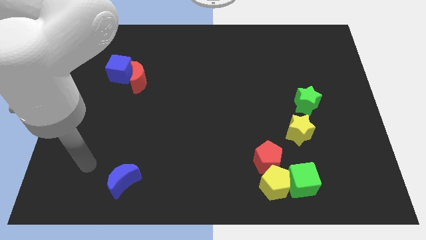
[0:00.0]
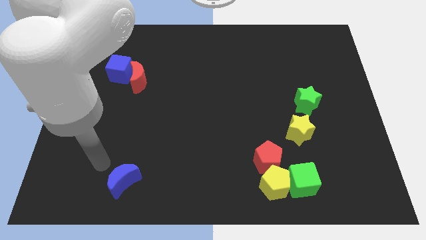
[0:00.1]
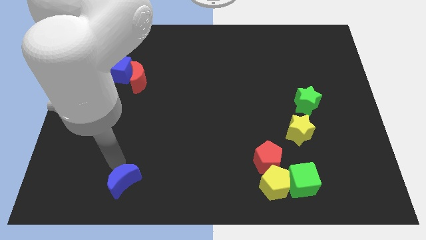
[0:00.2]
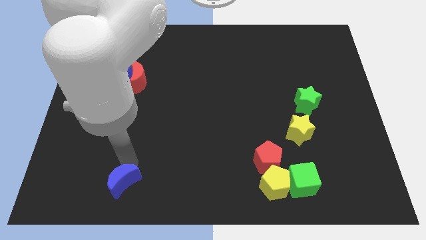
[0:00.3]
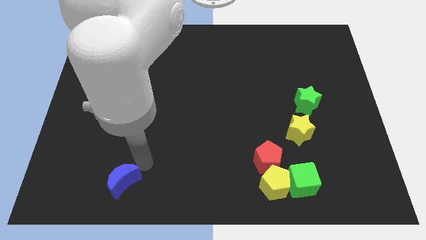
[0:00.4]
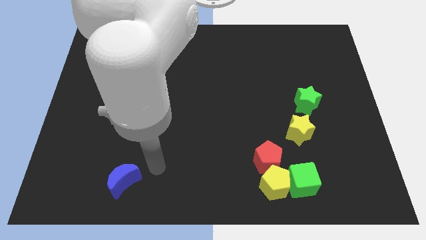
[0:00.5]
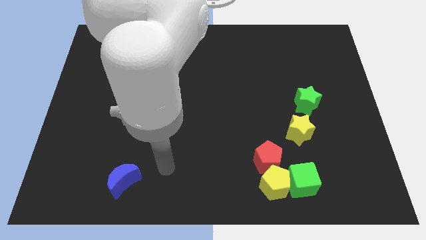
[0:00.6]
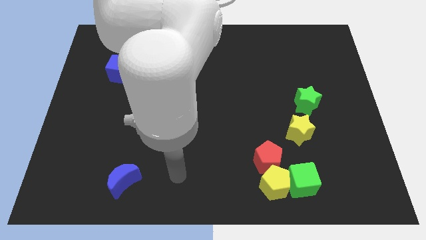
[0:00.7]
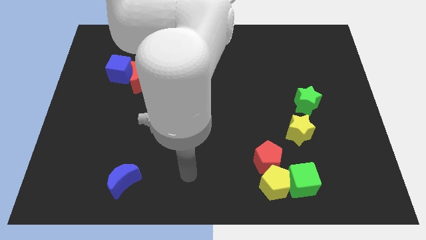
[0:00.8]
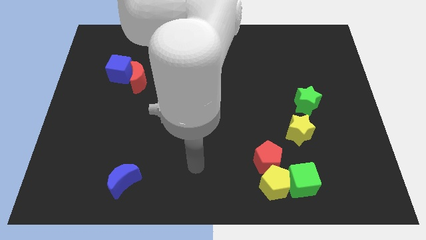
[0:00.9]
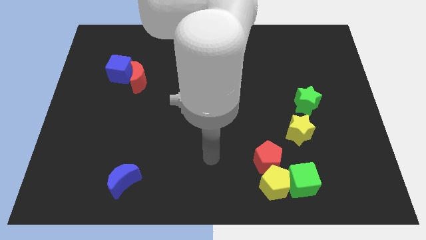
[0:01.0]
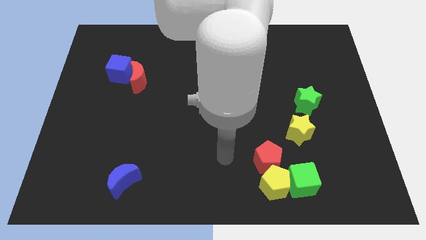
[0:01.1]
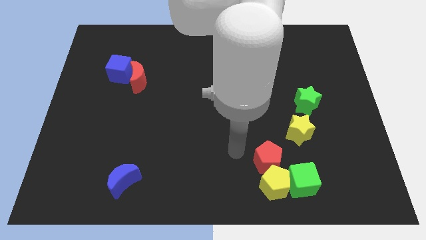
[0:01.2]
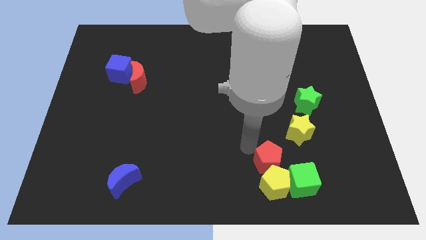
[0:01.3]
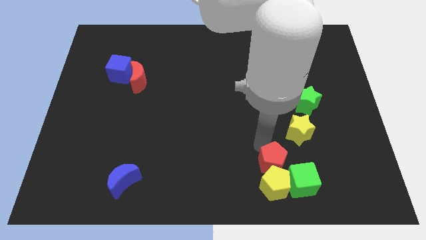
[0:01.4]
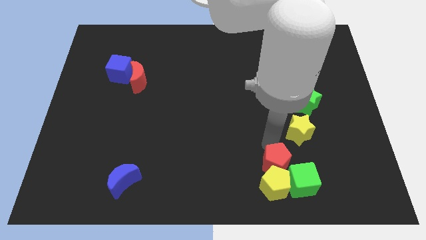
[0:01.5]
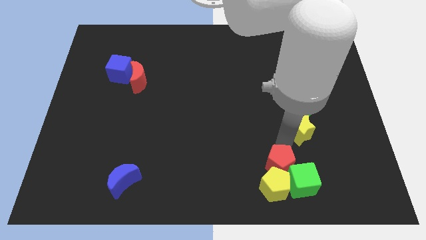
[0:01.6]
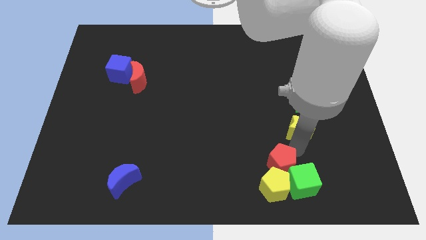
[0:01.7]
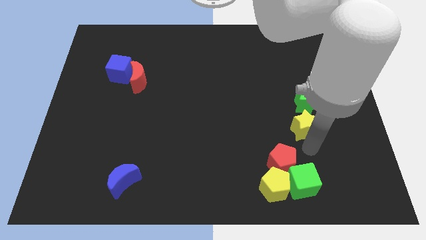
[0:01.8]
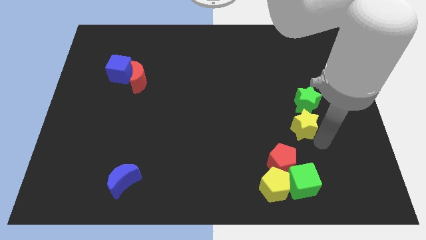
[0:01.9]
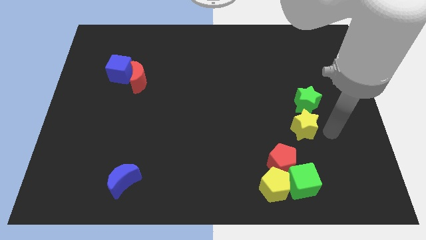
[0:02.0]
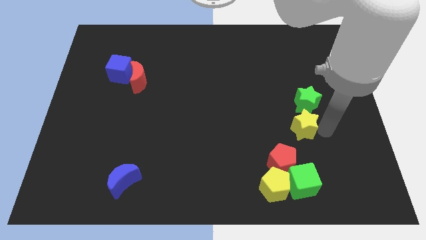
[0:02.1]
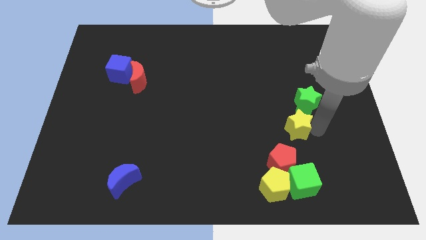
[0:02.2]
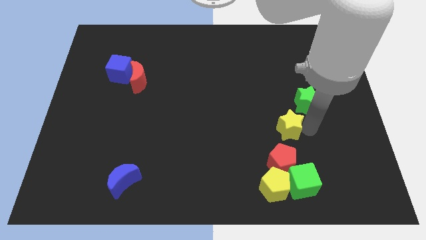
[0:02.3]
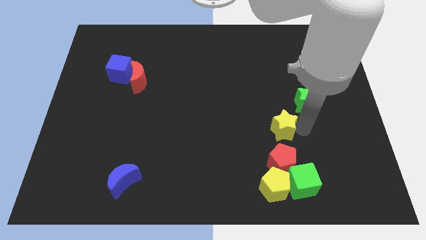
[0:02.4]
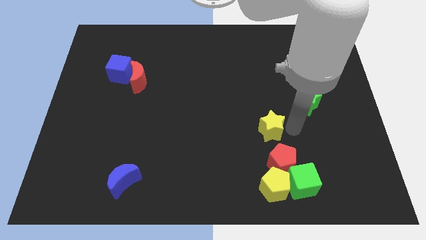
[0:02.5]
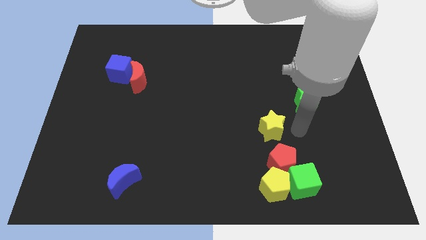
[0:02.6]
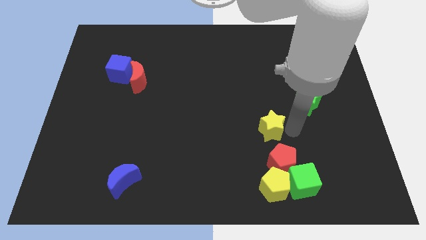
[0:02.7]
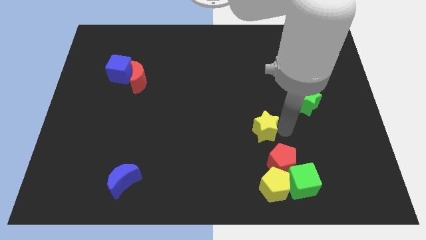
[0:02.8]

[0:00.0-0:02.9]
move the yellow star left a little

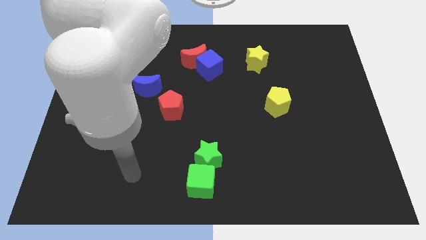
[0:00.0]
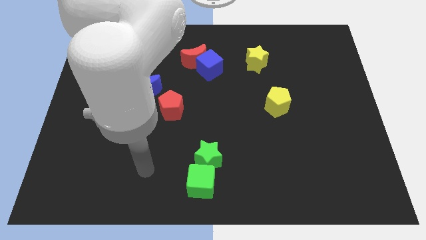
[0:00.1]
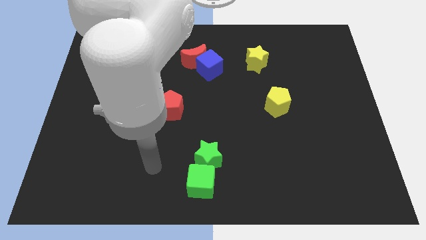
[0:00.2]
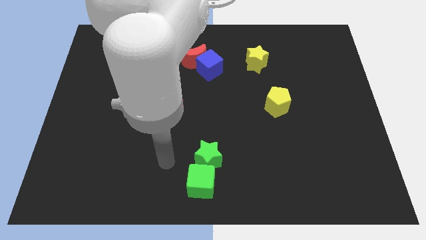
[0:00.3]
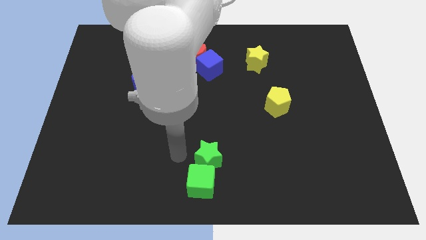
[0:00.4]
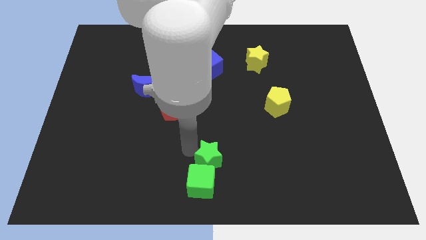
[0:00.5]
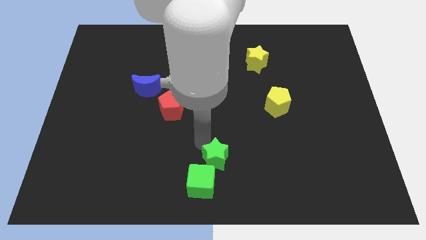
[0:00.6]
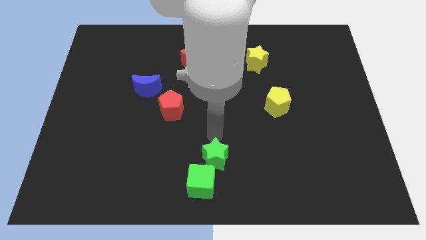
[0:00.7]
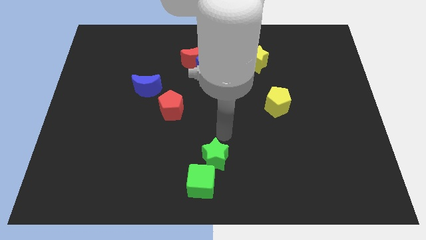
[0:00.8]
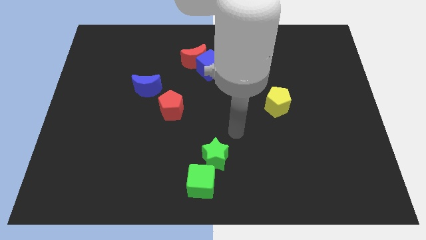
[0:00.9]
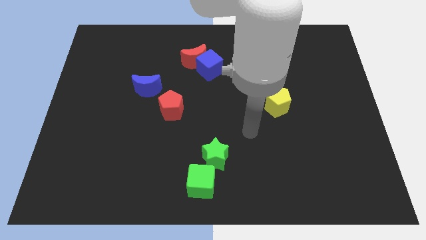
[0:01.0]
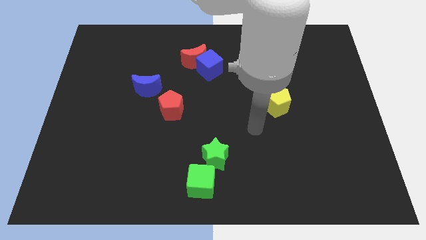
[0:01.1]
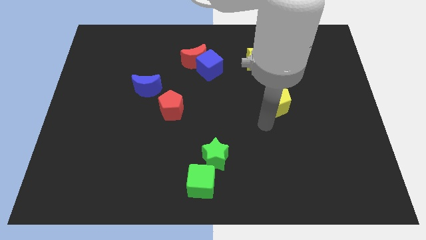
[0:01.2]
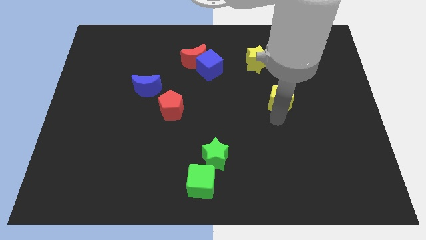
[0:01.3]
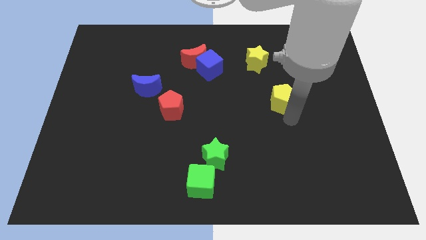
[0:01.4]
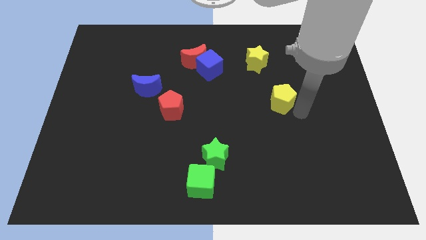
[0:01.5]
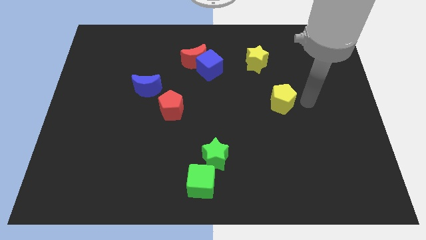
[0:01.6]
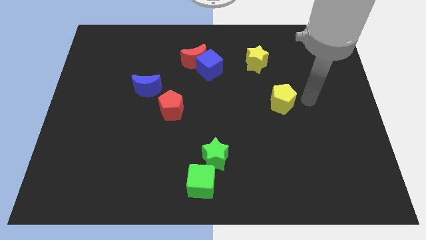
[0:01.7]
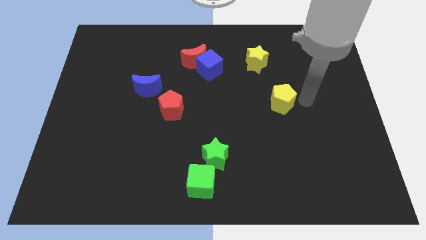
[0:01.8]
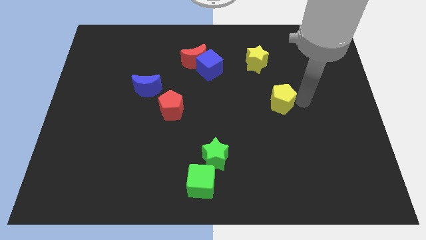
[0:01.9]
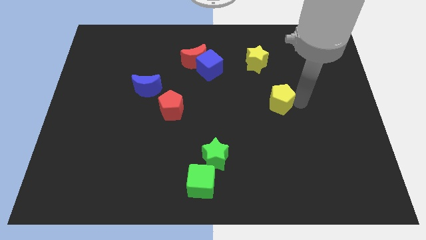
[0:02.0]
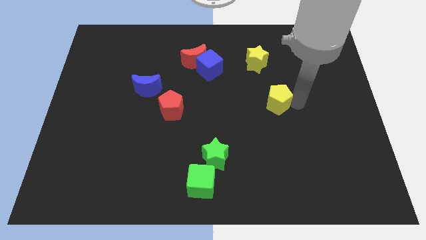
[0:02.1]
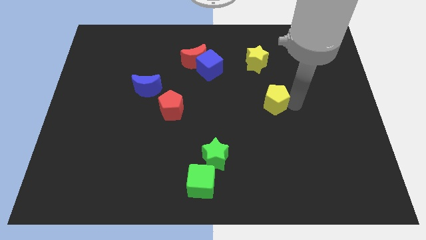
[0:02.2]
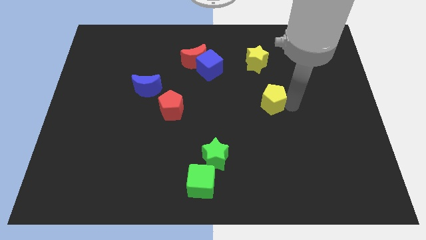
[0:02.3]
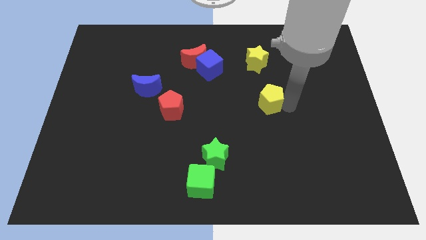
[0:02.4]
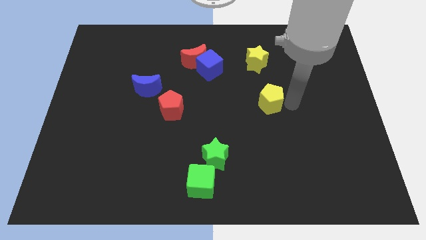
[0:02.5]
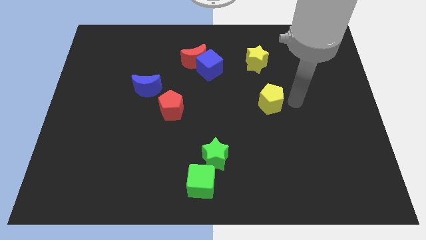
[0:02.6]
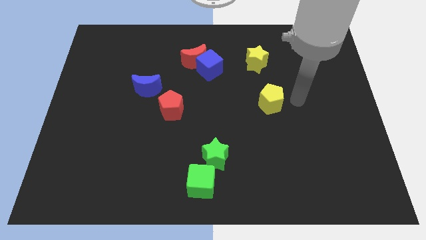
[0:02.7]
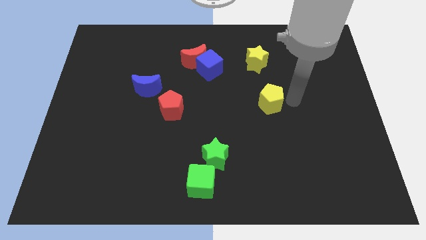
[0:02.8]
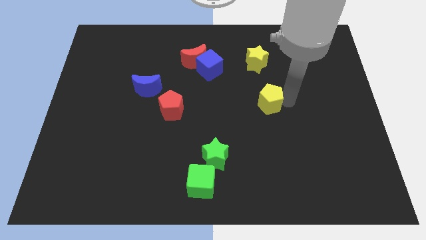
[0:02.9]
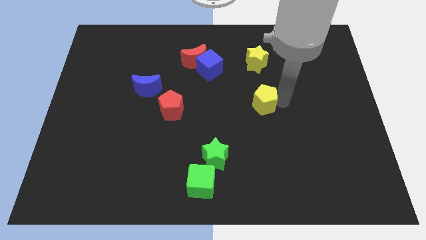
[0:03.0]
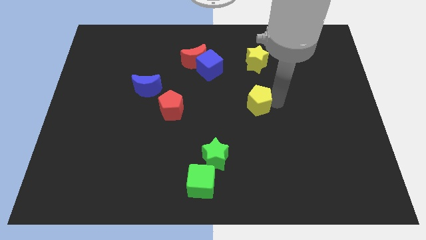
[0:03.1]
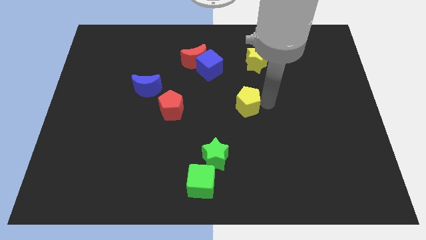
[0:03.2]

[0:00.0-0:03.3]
slightly push the yellow pentagon left

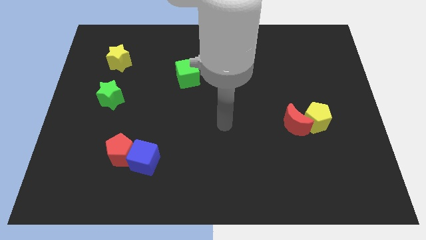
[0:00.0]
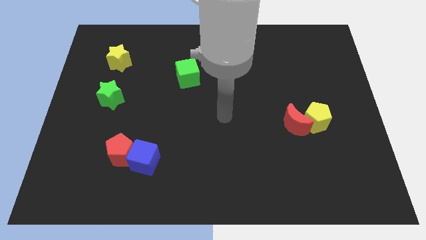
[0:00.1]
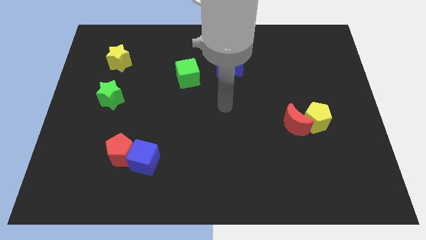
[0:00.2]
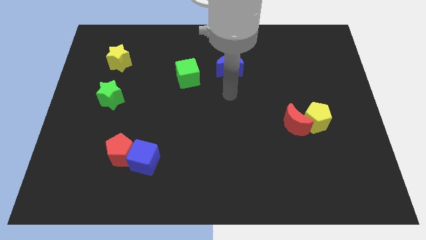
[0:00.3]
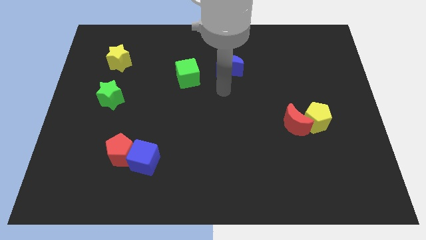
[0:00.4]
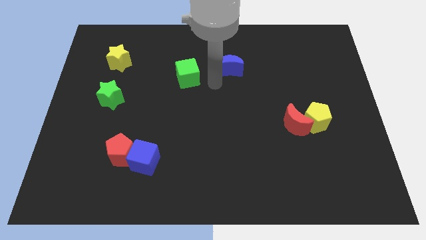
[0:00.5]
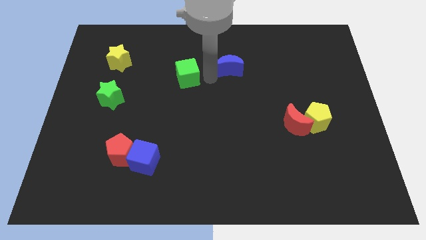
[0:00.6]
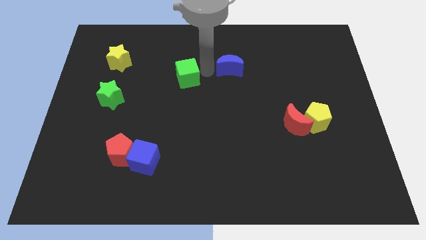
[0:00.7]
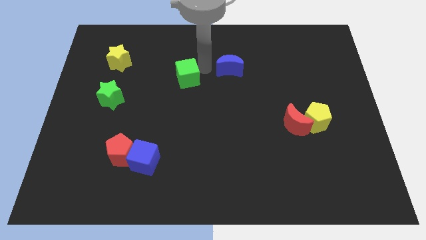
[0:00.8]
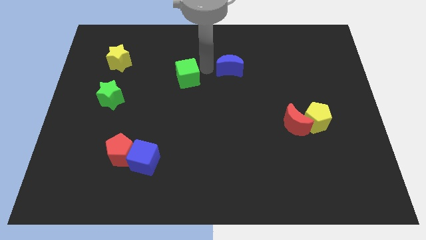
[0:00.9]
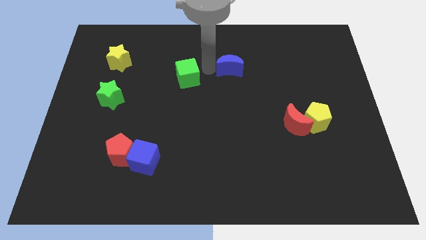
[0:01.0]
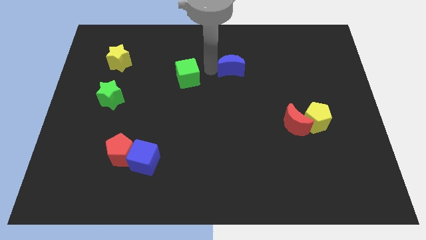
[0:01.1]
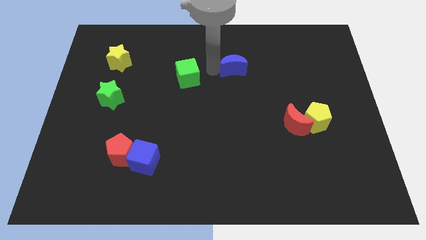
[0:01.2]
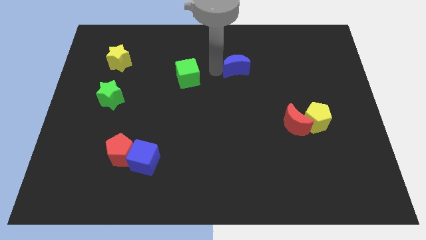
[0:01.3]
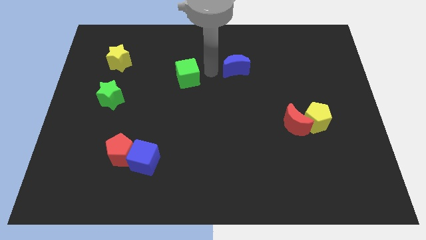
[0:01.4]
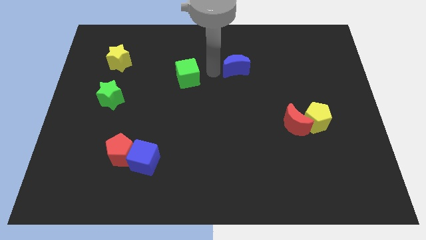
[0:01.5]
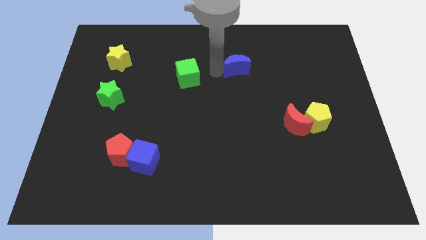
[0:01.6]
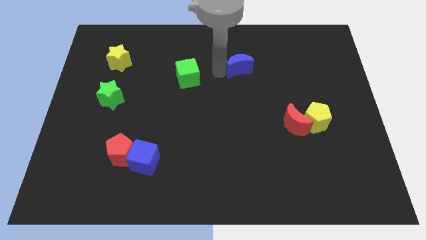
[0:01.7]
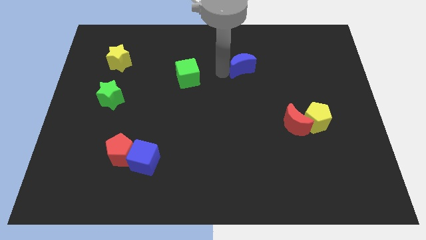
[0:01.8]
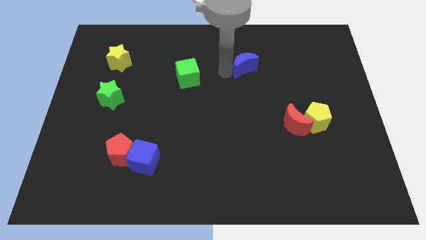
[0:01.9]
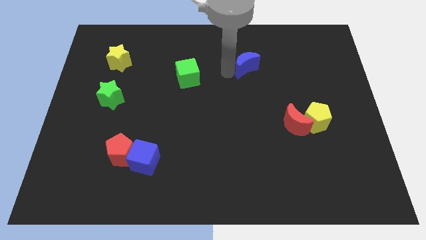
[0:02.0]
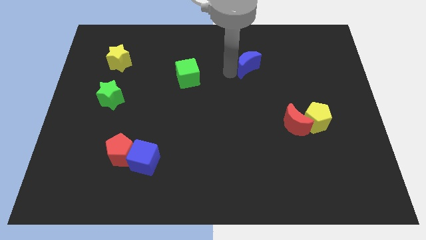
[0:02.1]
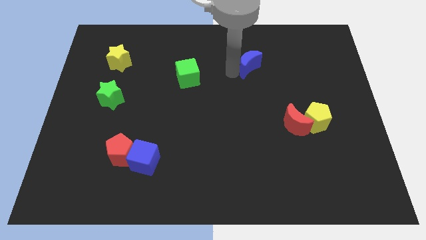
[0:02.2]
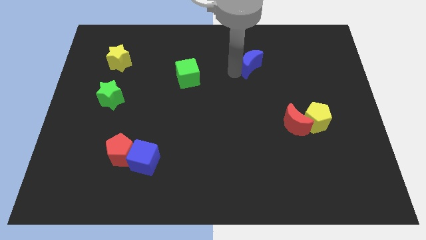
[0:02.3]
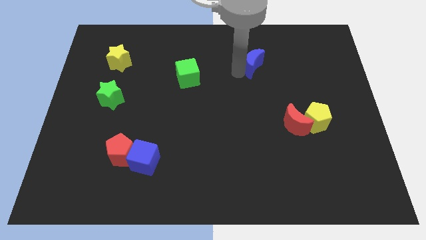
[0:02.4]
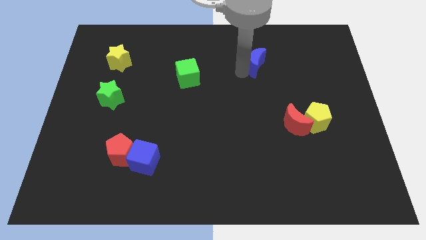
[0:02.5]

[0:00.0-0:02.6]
move the blue moon to the right somewhat
